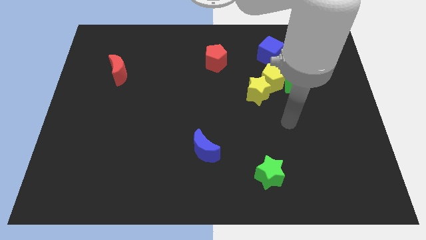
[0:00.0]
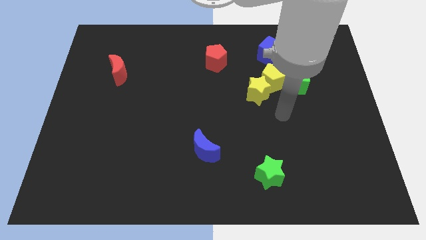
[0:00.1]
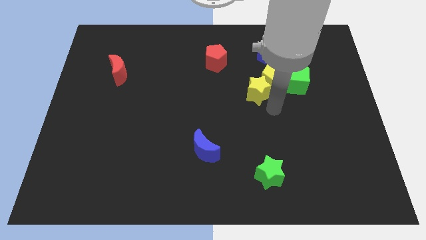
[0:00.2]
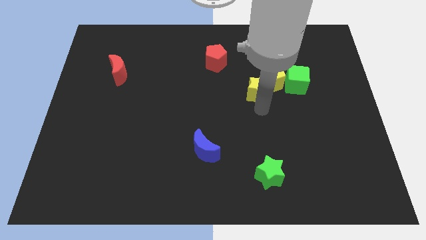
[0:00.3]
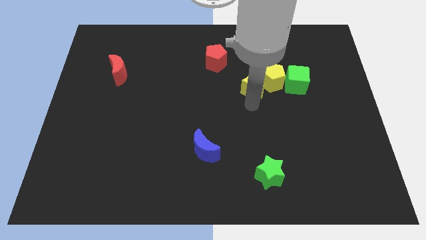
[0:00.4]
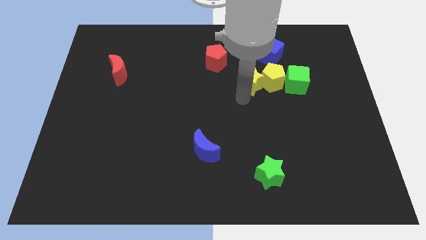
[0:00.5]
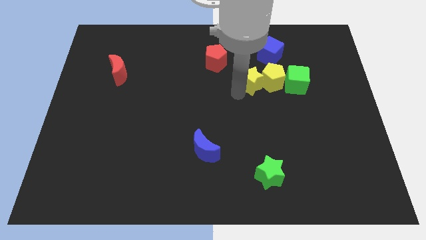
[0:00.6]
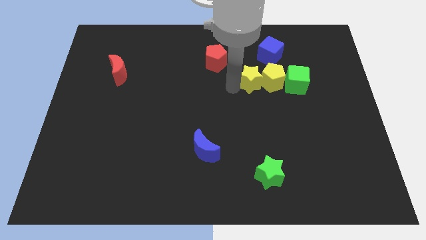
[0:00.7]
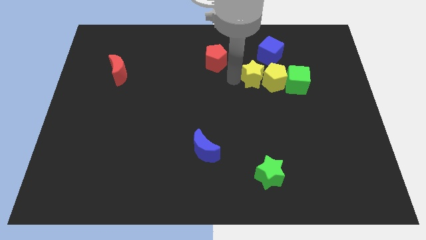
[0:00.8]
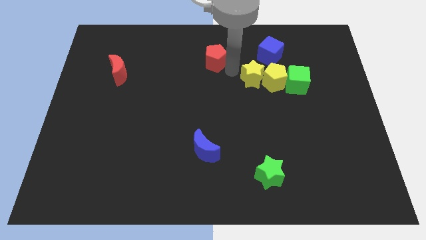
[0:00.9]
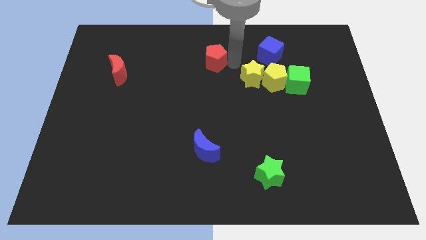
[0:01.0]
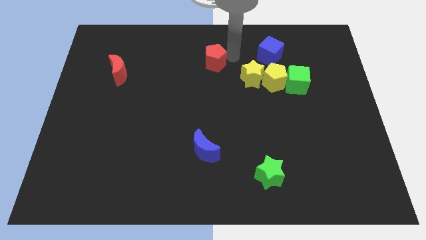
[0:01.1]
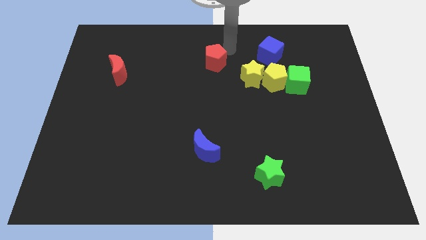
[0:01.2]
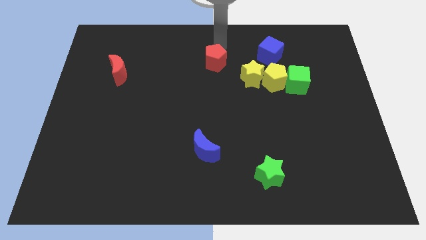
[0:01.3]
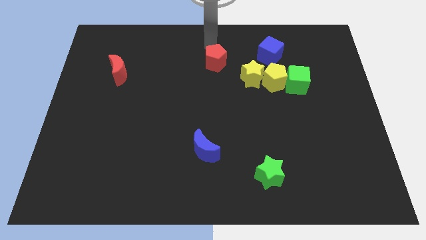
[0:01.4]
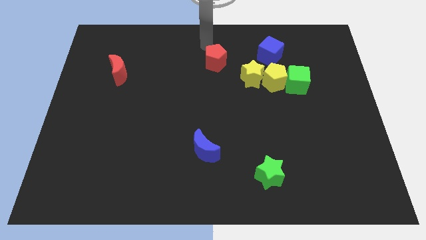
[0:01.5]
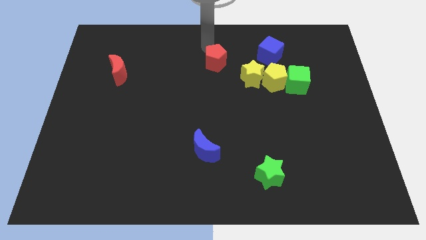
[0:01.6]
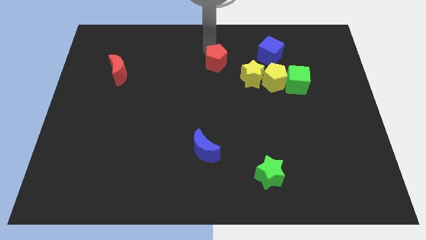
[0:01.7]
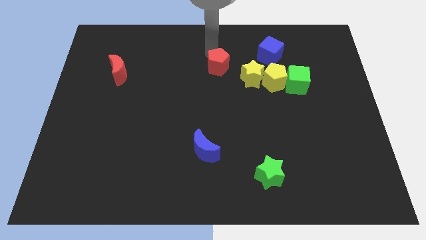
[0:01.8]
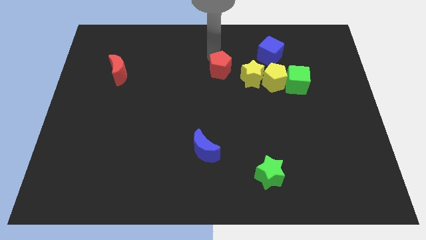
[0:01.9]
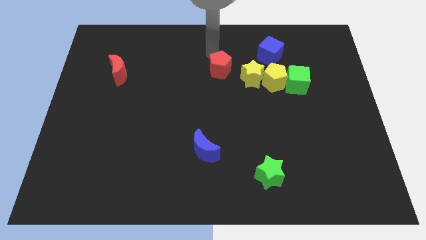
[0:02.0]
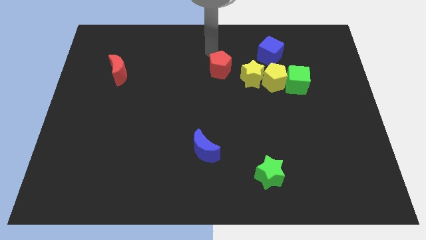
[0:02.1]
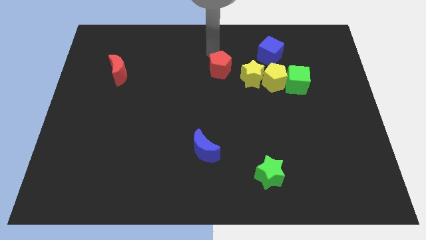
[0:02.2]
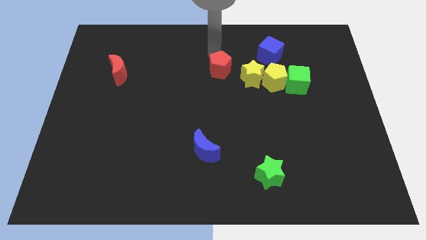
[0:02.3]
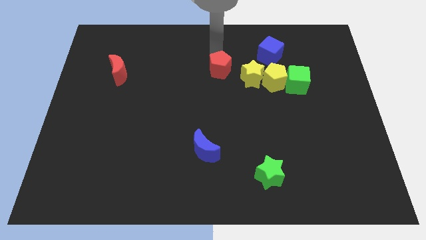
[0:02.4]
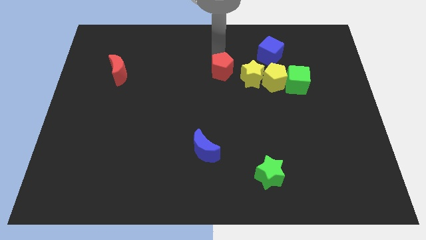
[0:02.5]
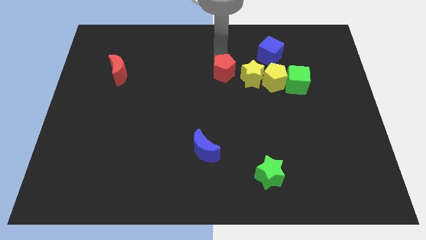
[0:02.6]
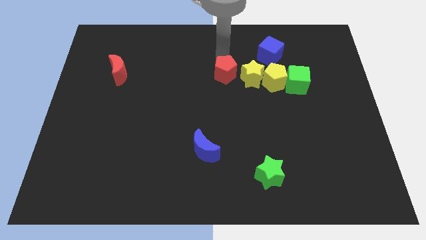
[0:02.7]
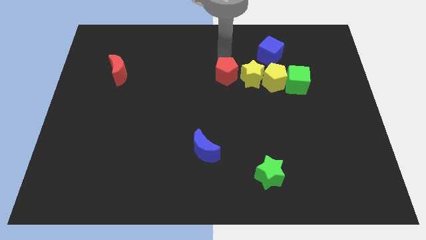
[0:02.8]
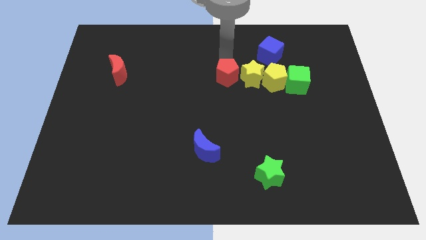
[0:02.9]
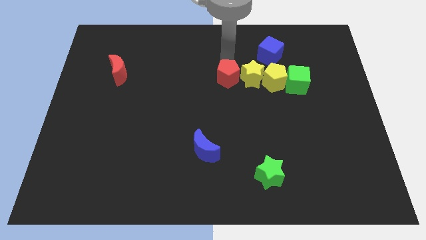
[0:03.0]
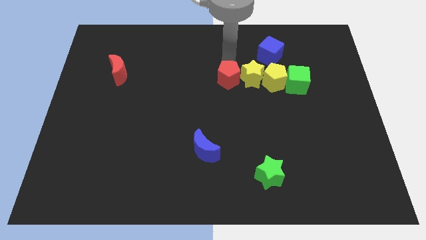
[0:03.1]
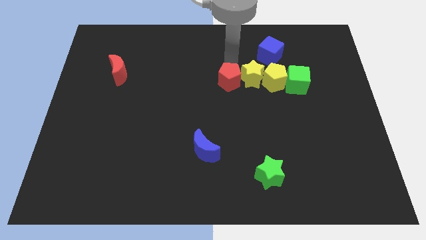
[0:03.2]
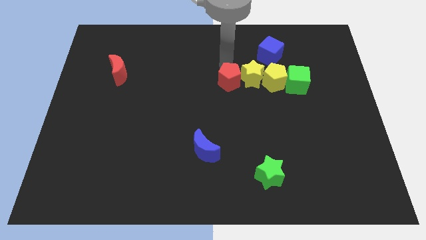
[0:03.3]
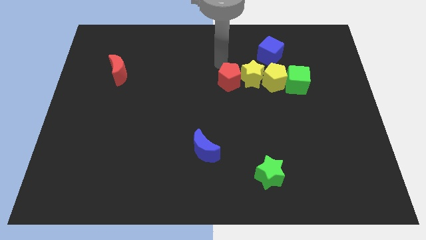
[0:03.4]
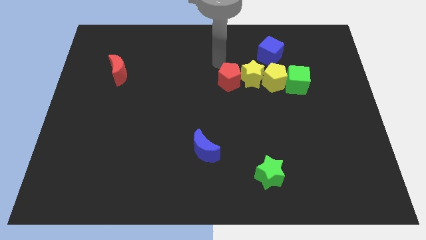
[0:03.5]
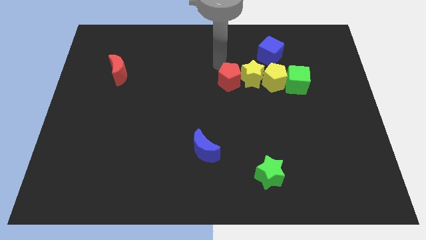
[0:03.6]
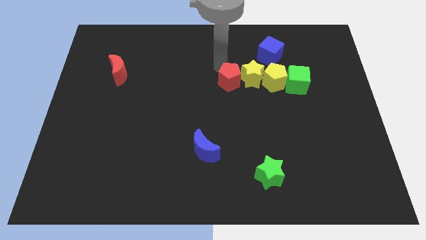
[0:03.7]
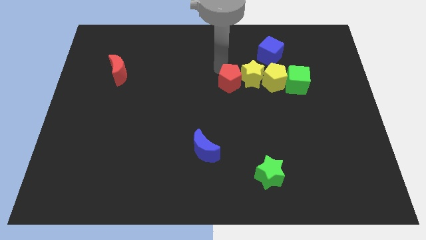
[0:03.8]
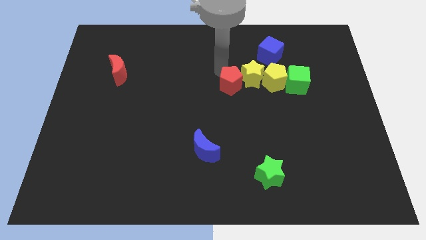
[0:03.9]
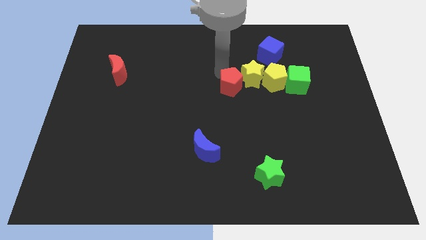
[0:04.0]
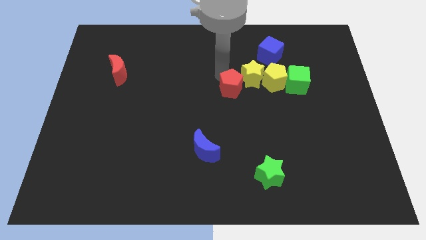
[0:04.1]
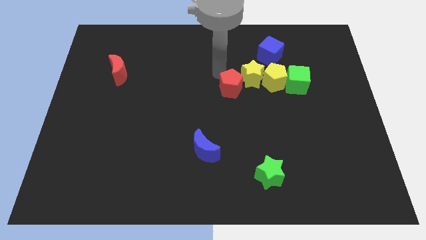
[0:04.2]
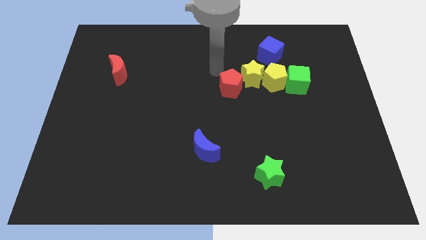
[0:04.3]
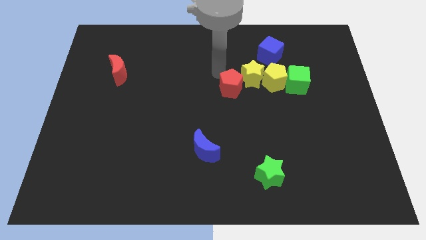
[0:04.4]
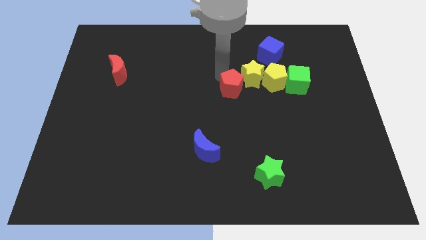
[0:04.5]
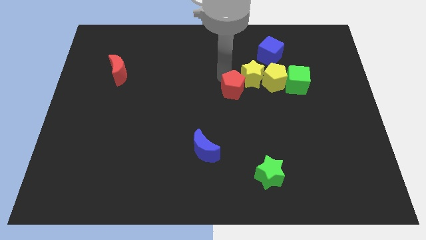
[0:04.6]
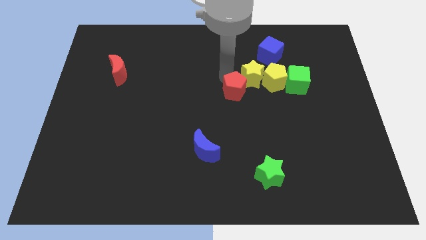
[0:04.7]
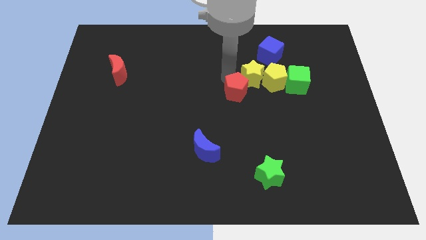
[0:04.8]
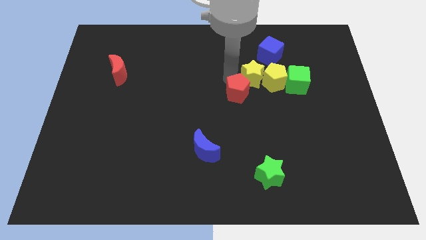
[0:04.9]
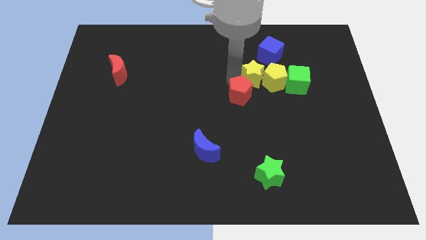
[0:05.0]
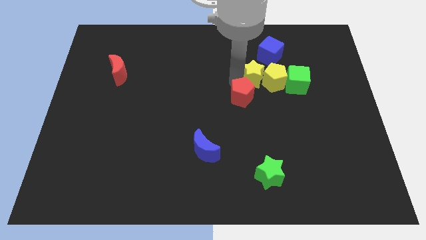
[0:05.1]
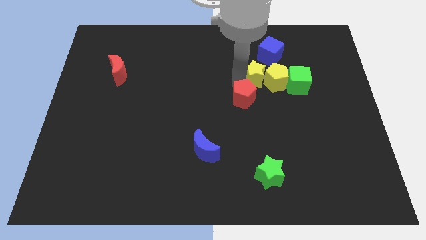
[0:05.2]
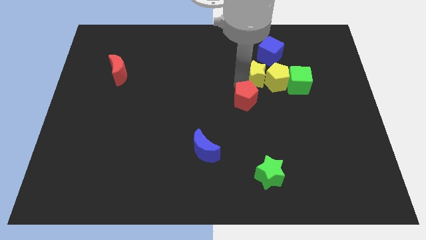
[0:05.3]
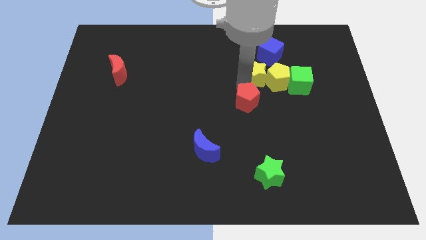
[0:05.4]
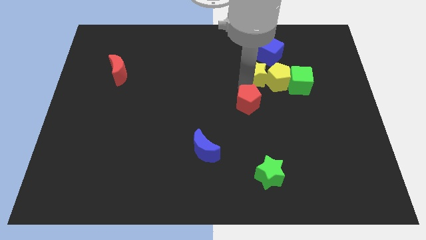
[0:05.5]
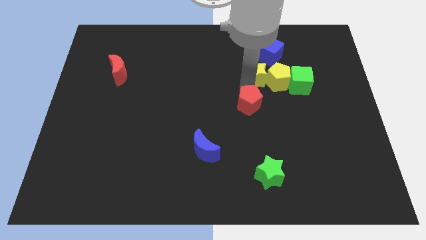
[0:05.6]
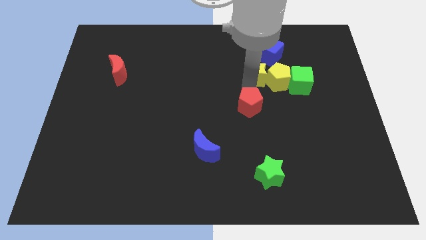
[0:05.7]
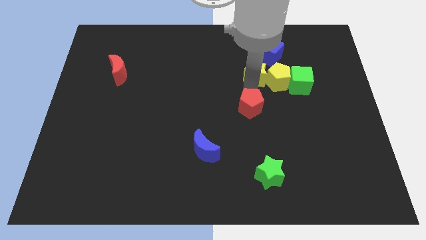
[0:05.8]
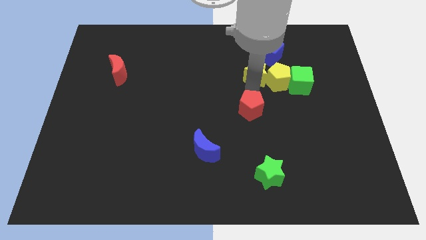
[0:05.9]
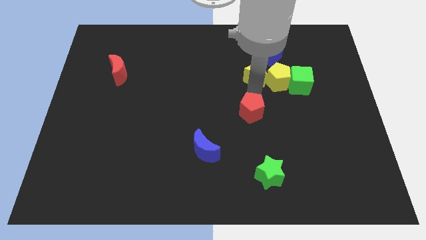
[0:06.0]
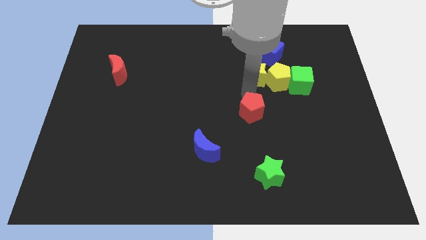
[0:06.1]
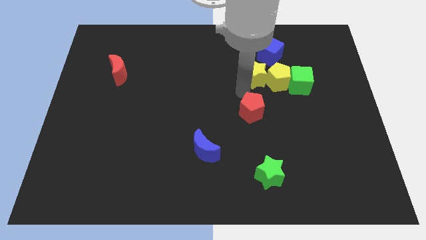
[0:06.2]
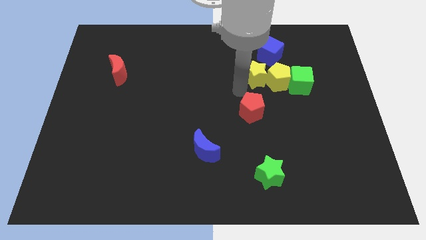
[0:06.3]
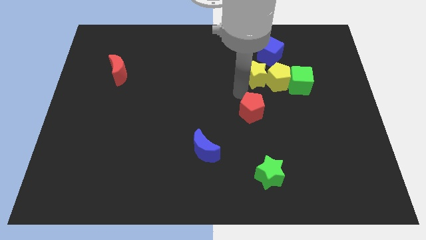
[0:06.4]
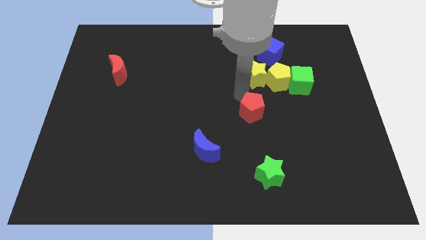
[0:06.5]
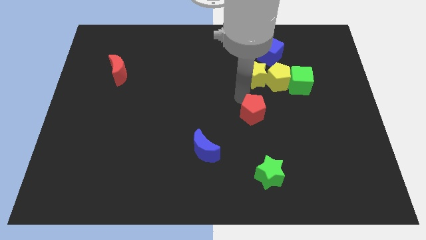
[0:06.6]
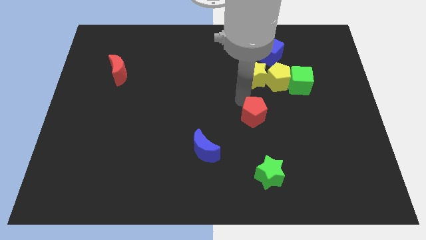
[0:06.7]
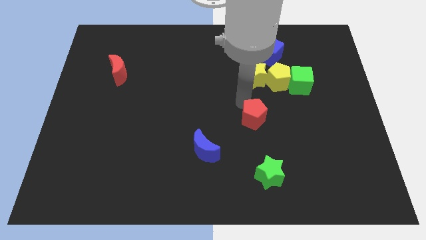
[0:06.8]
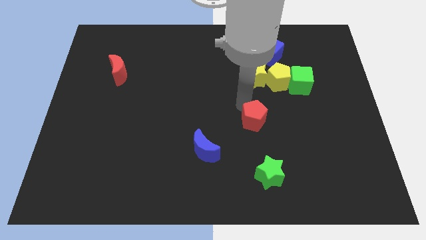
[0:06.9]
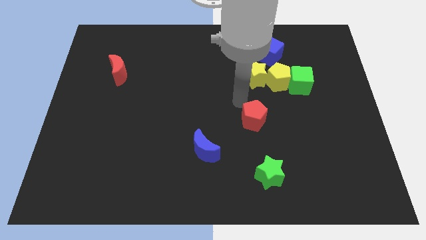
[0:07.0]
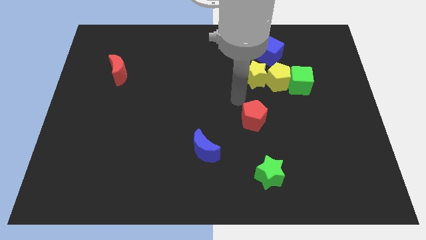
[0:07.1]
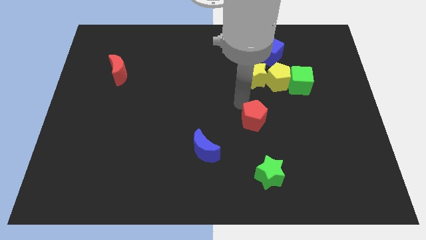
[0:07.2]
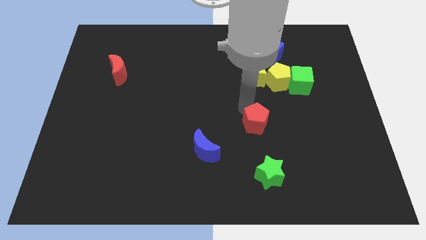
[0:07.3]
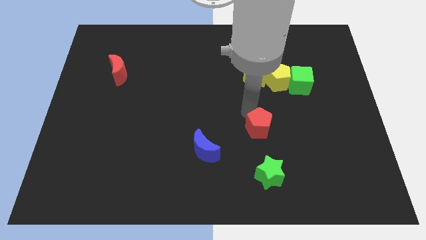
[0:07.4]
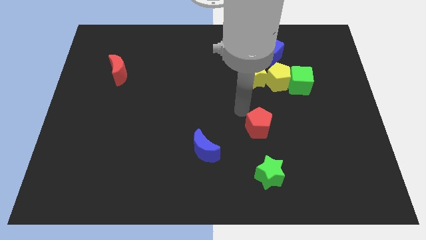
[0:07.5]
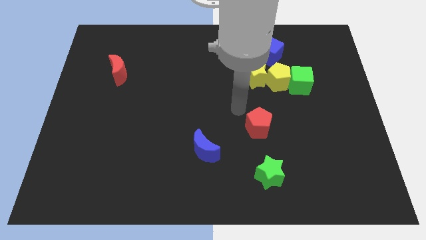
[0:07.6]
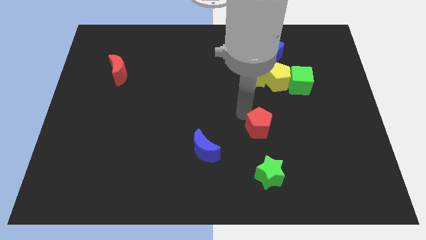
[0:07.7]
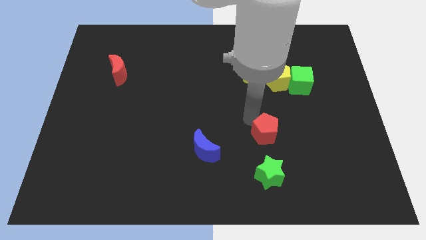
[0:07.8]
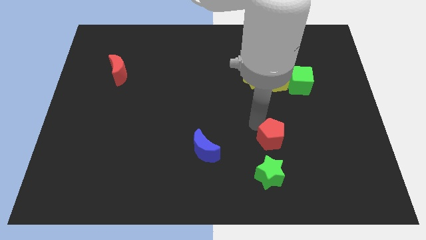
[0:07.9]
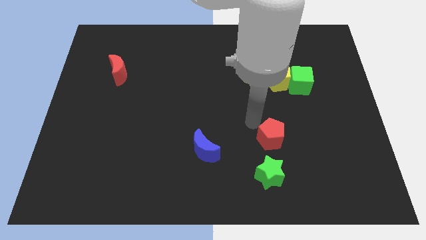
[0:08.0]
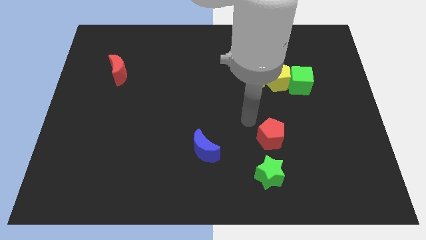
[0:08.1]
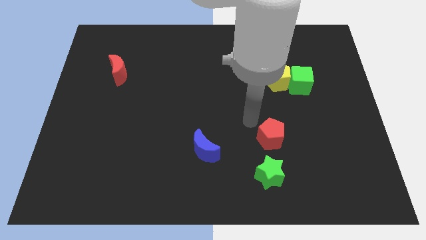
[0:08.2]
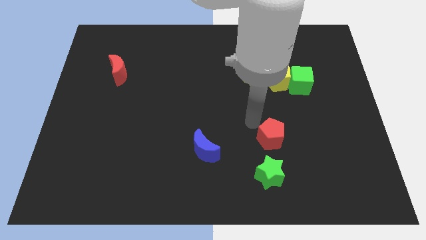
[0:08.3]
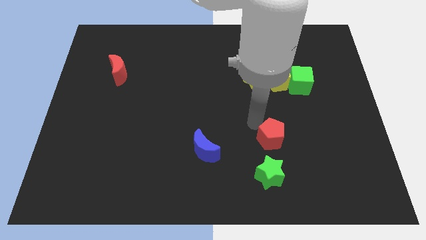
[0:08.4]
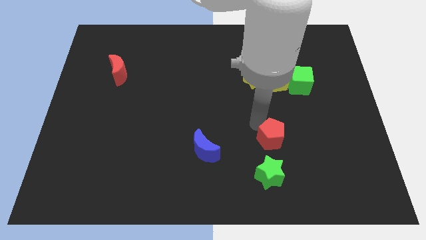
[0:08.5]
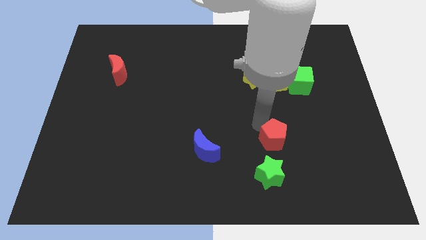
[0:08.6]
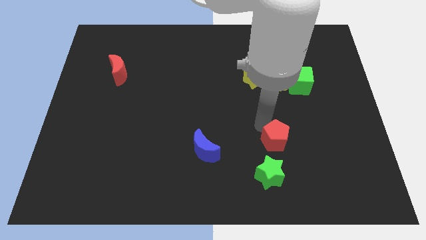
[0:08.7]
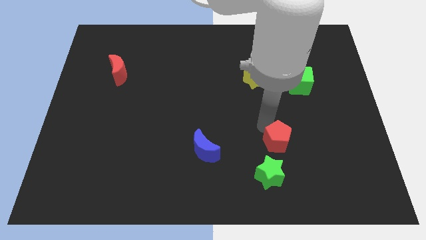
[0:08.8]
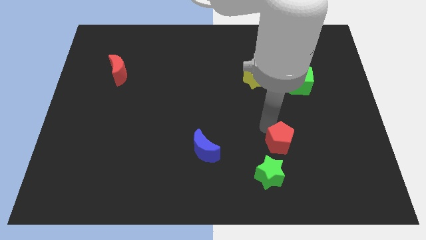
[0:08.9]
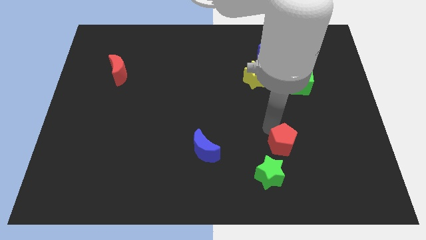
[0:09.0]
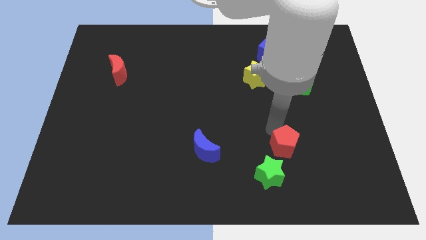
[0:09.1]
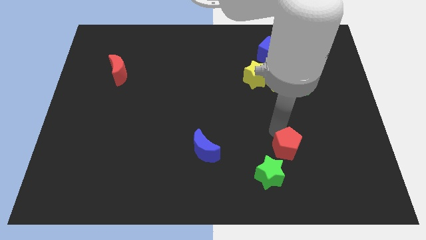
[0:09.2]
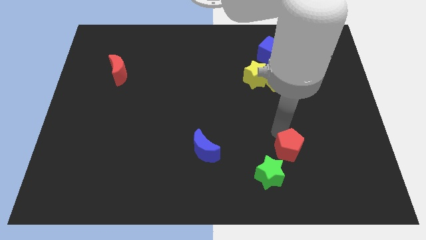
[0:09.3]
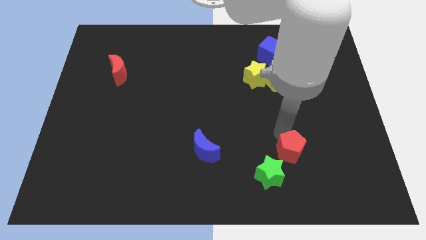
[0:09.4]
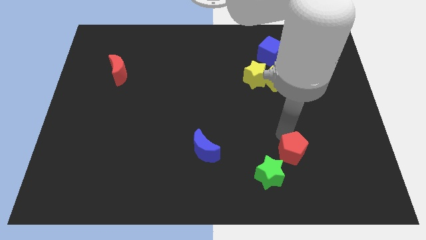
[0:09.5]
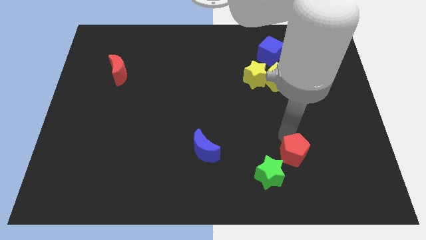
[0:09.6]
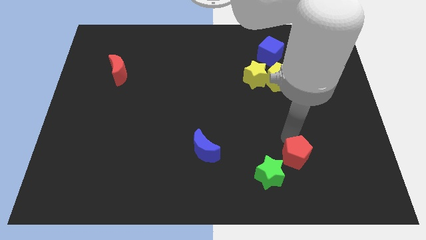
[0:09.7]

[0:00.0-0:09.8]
move the red pentagon to the right of the green star
